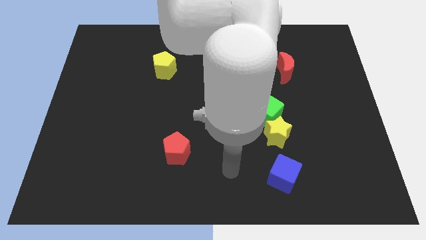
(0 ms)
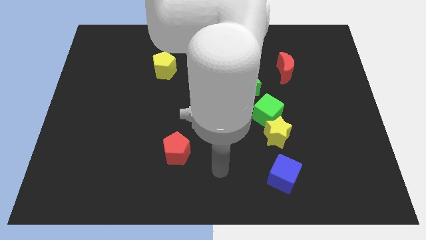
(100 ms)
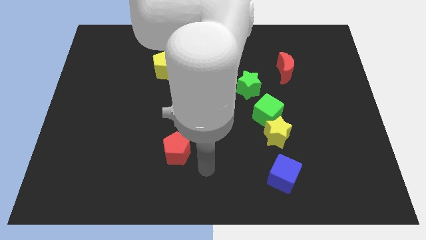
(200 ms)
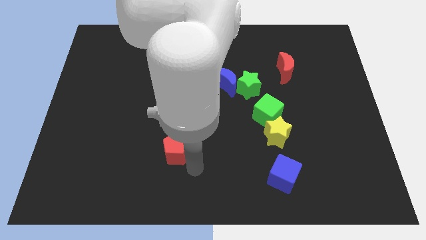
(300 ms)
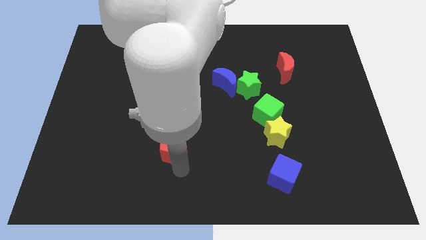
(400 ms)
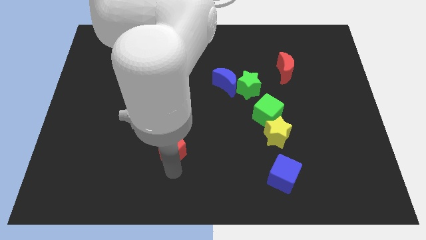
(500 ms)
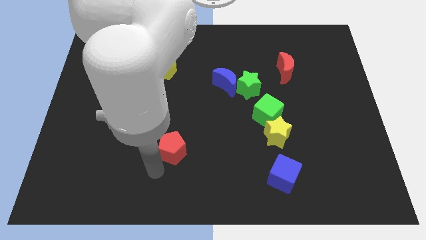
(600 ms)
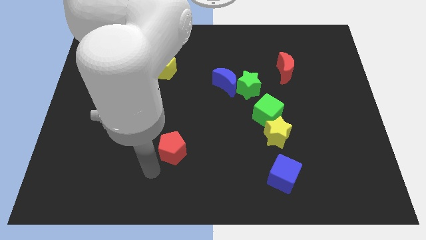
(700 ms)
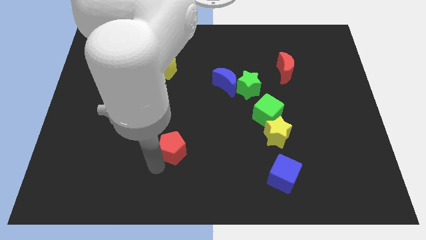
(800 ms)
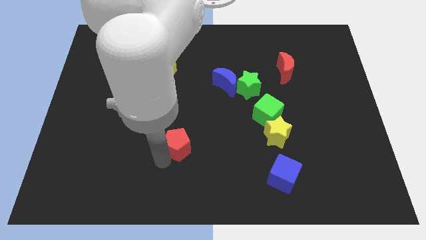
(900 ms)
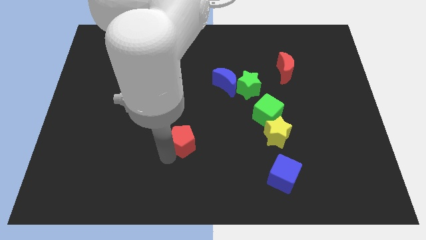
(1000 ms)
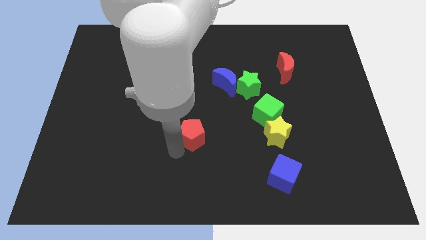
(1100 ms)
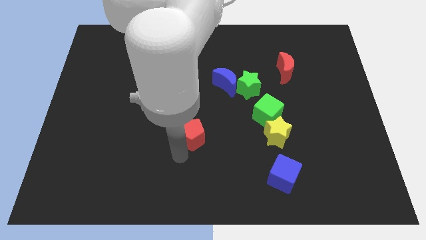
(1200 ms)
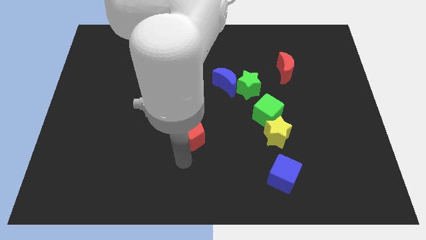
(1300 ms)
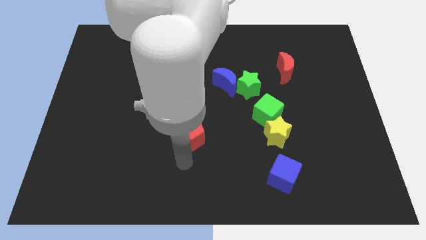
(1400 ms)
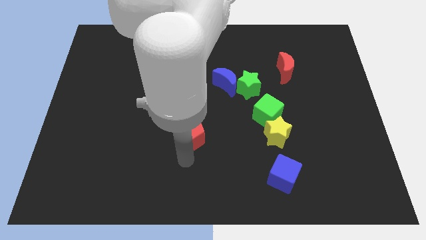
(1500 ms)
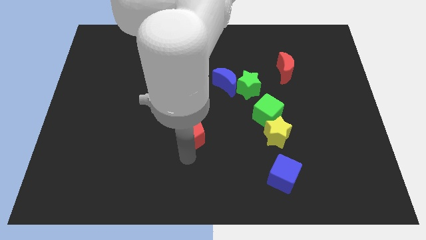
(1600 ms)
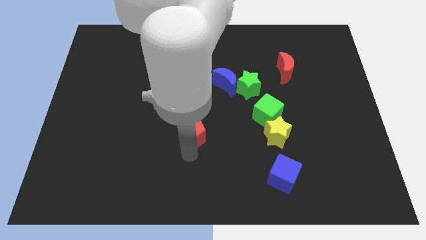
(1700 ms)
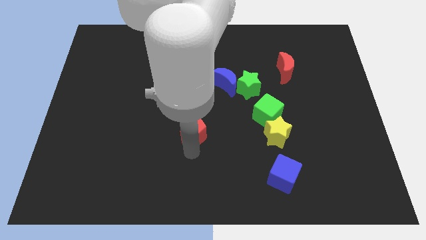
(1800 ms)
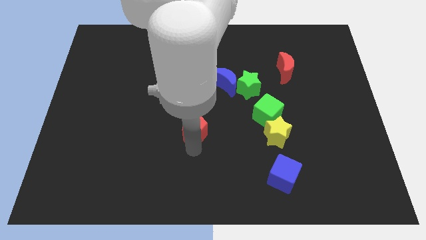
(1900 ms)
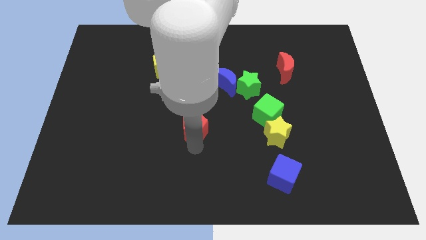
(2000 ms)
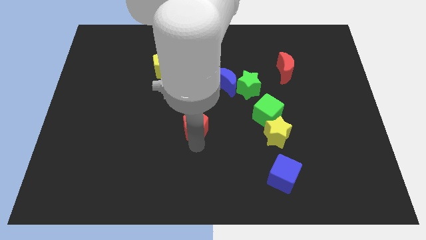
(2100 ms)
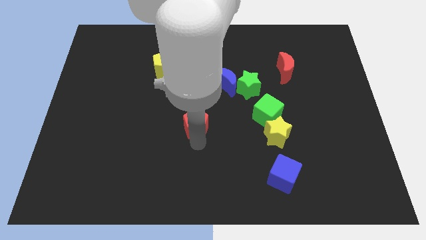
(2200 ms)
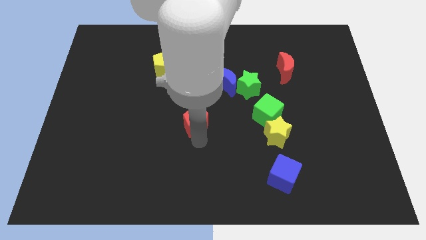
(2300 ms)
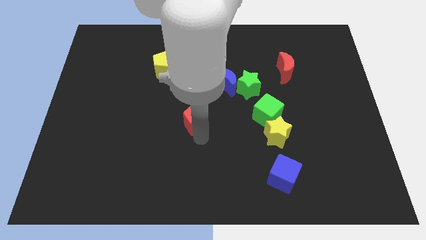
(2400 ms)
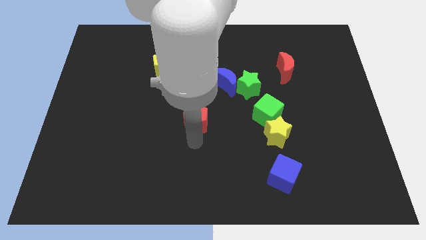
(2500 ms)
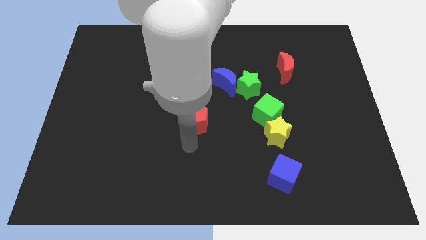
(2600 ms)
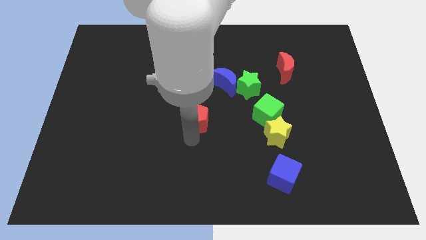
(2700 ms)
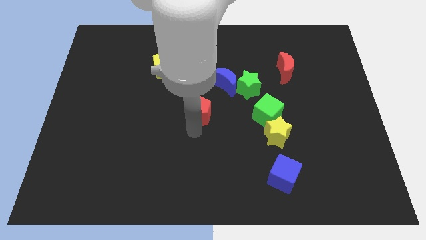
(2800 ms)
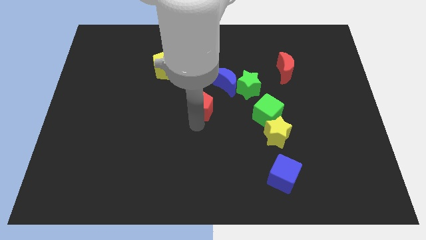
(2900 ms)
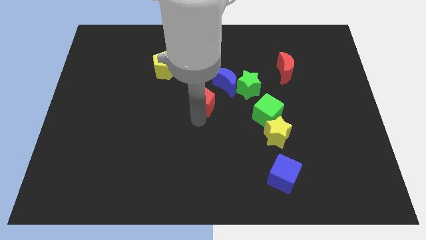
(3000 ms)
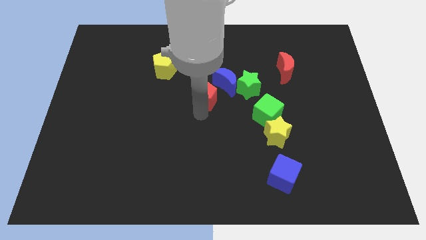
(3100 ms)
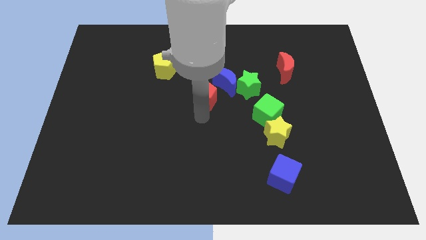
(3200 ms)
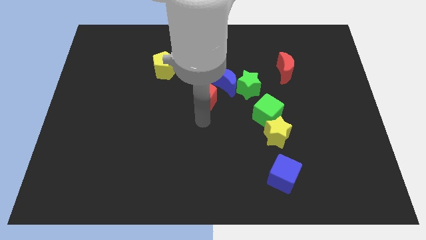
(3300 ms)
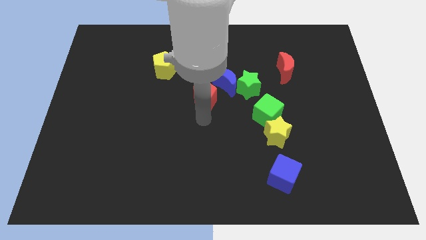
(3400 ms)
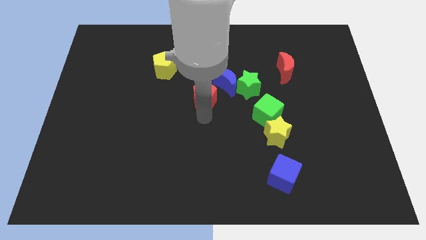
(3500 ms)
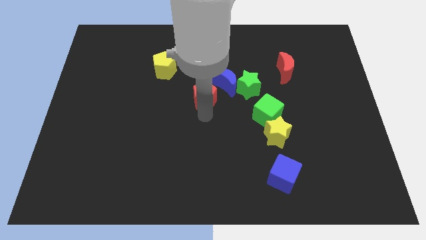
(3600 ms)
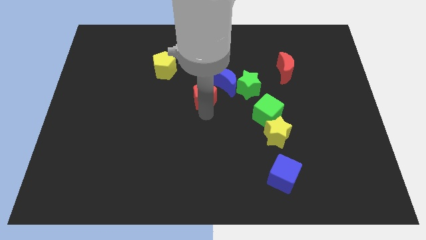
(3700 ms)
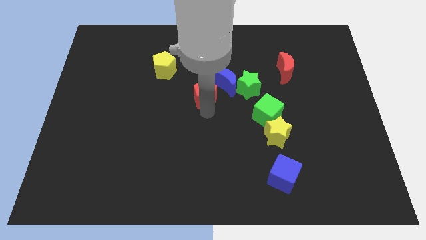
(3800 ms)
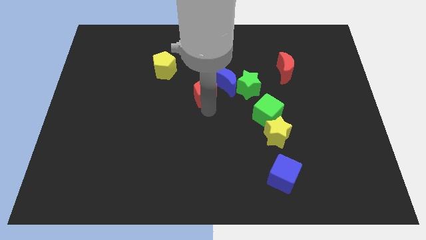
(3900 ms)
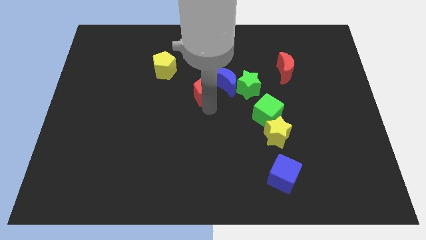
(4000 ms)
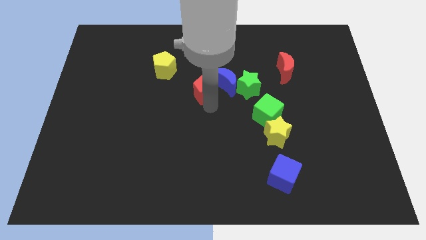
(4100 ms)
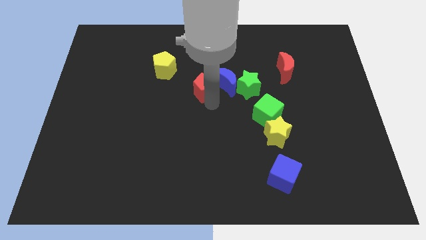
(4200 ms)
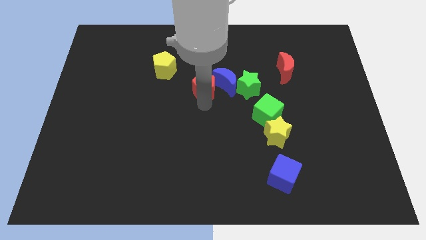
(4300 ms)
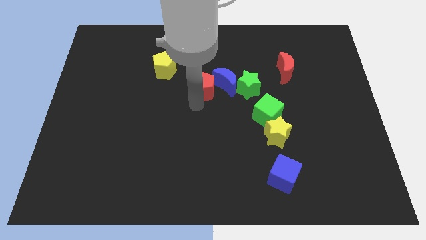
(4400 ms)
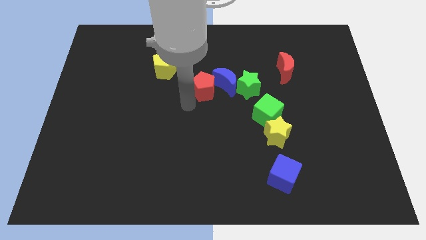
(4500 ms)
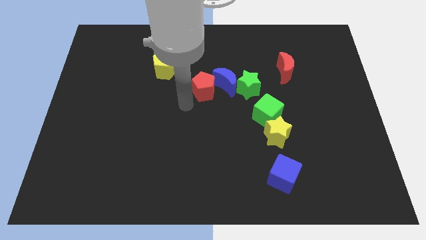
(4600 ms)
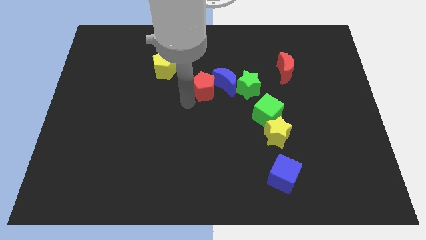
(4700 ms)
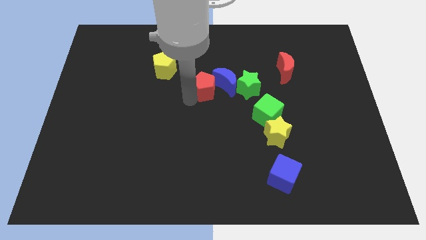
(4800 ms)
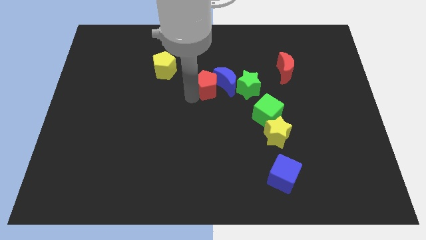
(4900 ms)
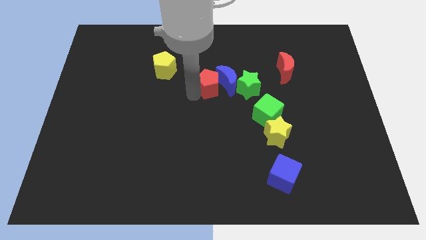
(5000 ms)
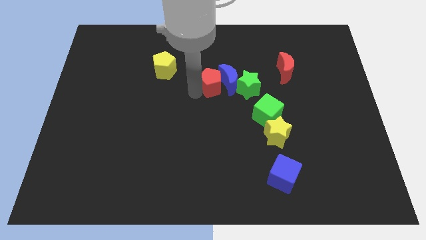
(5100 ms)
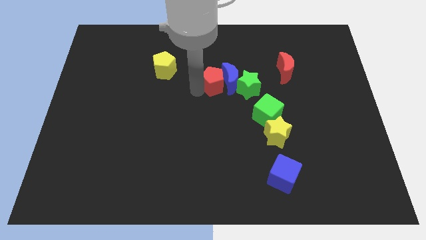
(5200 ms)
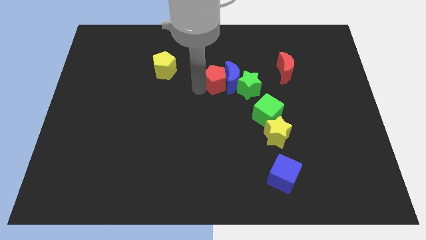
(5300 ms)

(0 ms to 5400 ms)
slide the red pentagon to the top left of the green star
